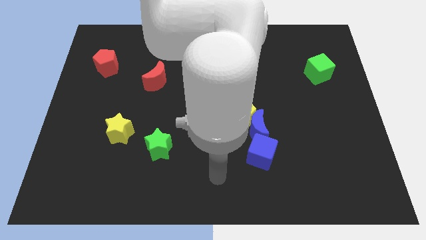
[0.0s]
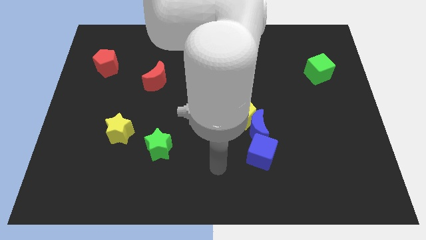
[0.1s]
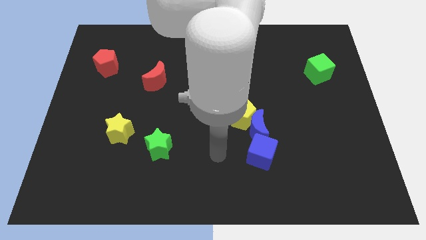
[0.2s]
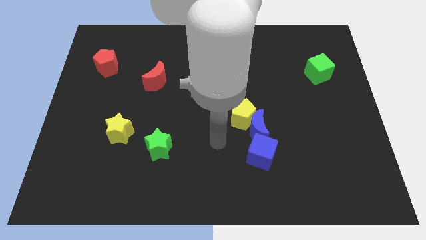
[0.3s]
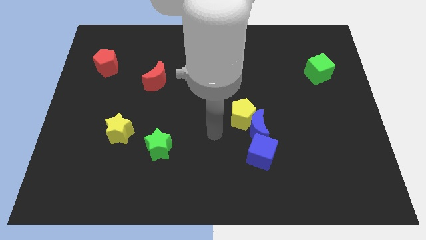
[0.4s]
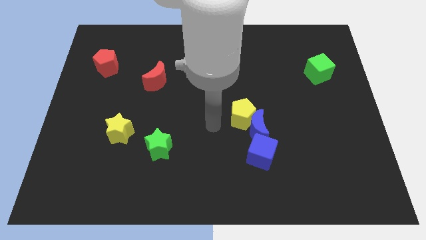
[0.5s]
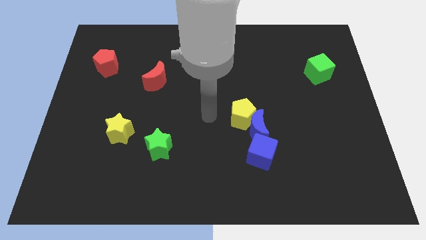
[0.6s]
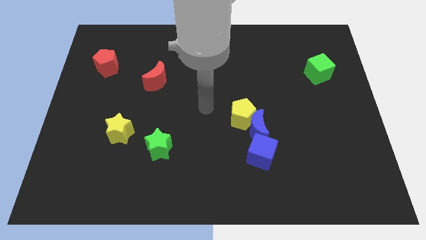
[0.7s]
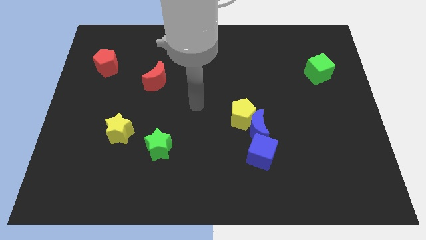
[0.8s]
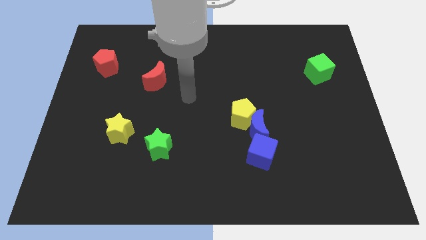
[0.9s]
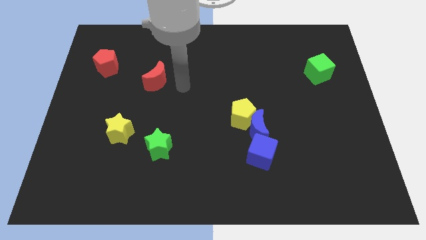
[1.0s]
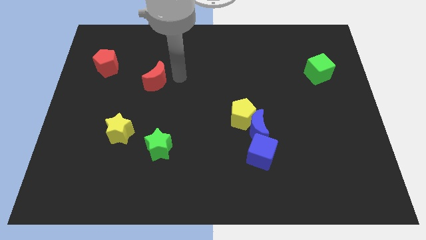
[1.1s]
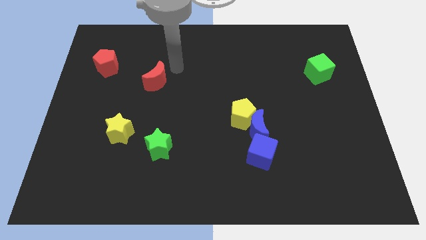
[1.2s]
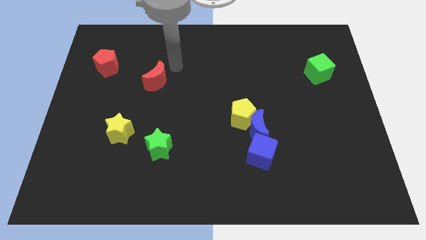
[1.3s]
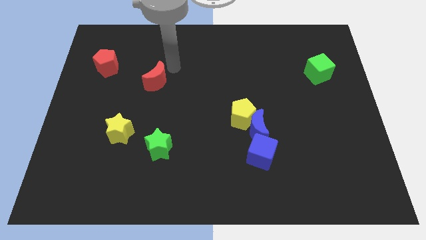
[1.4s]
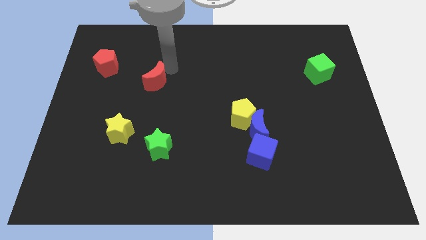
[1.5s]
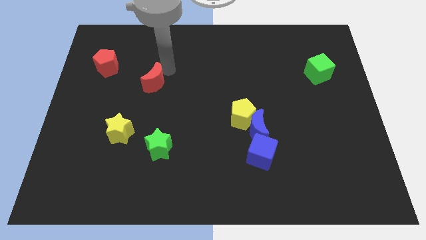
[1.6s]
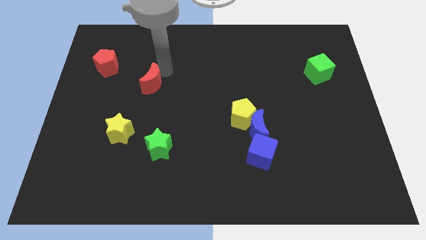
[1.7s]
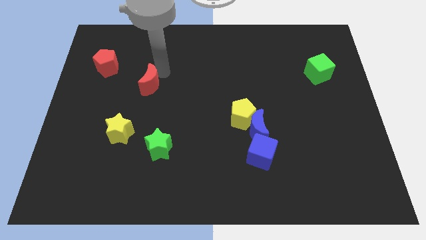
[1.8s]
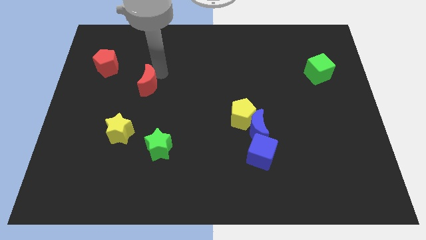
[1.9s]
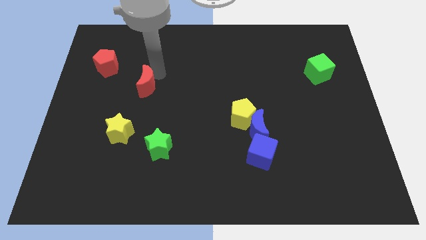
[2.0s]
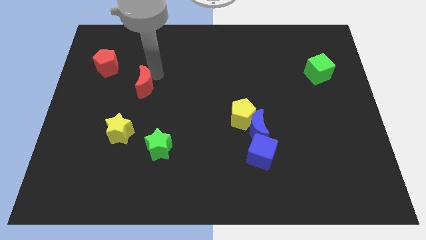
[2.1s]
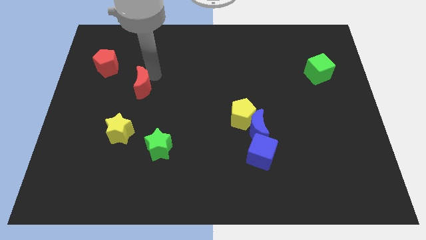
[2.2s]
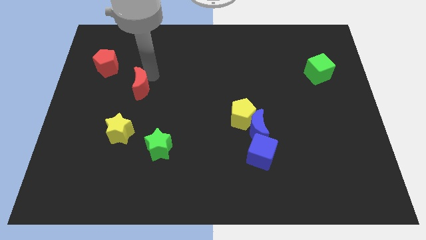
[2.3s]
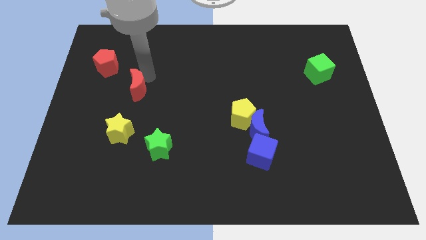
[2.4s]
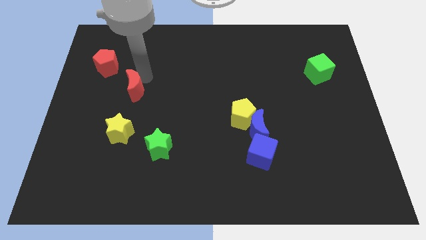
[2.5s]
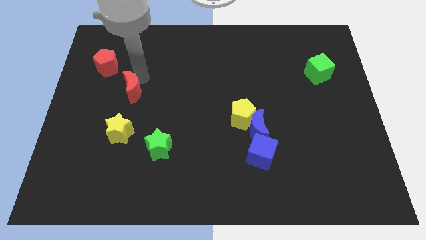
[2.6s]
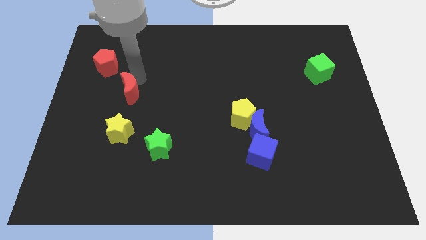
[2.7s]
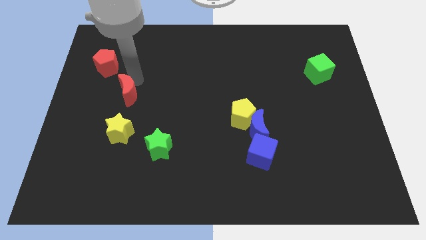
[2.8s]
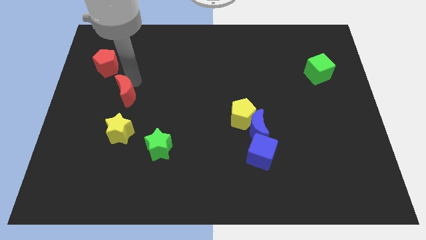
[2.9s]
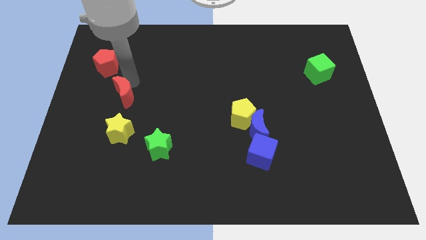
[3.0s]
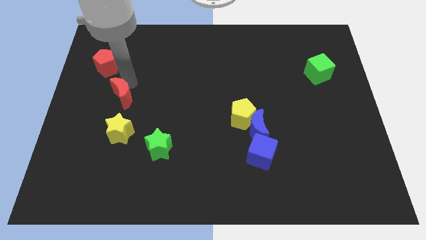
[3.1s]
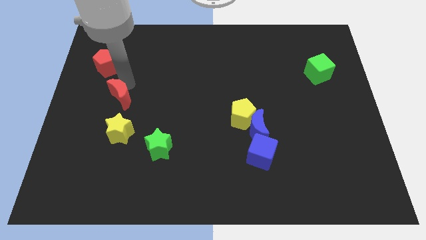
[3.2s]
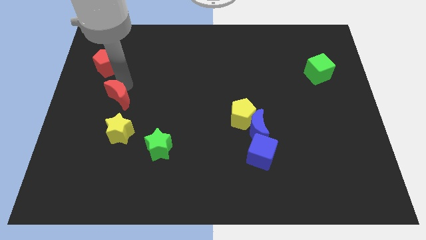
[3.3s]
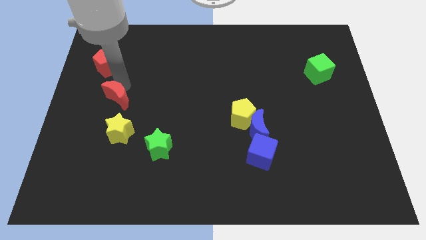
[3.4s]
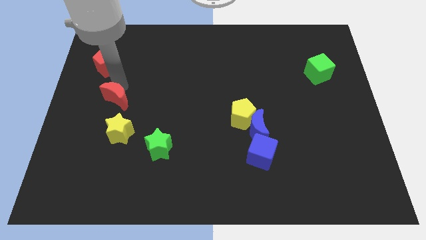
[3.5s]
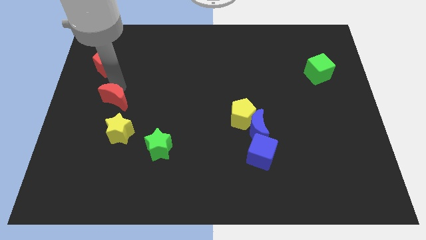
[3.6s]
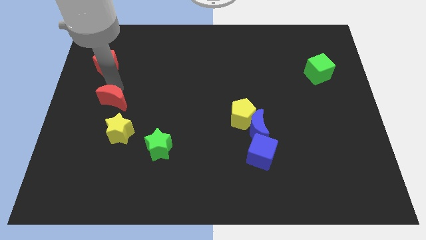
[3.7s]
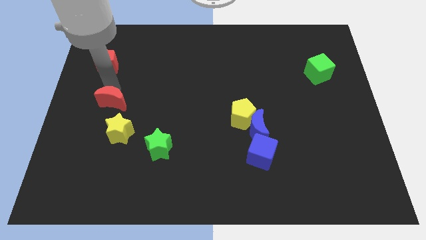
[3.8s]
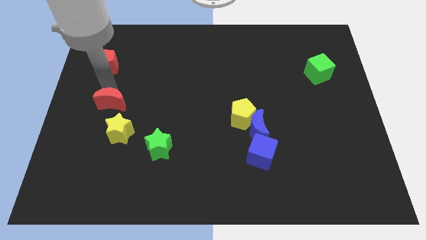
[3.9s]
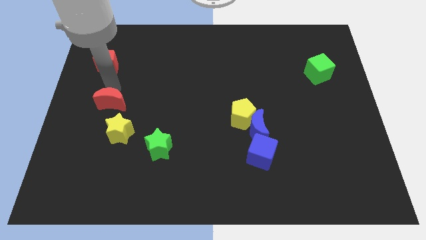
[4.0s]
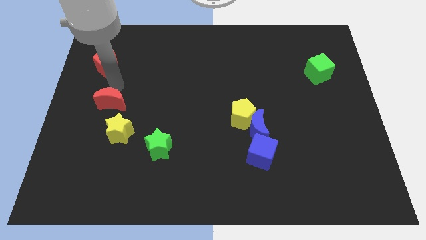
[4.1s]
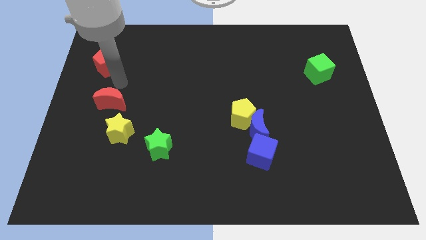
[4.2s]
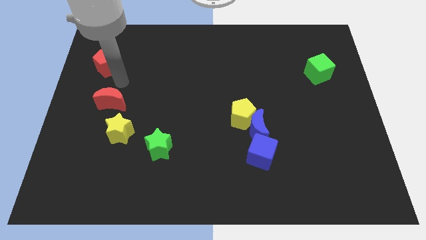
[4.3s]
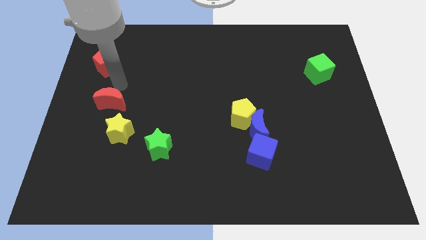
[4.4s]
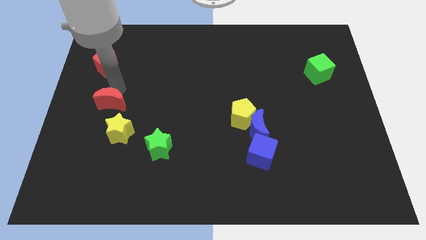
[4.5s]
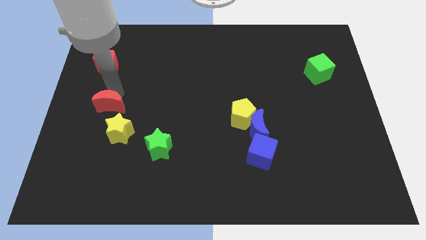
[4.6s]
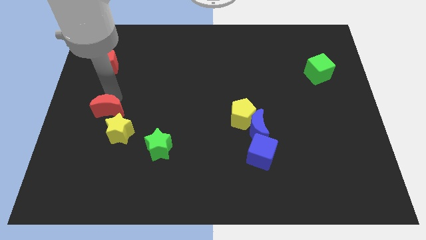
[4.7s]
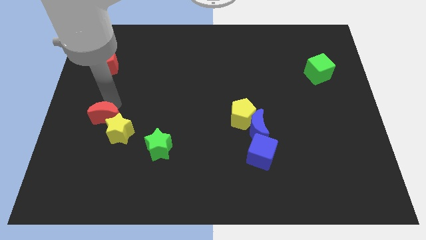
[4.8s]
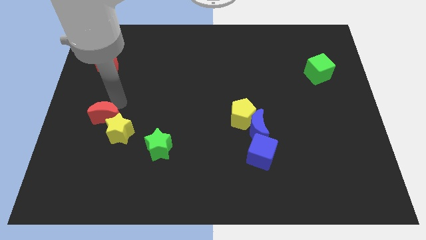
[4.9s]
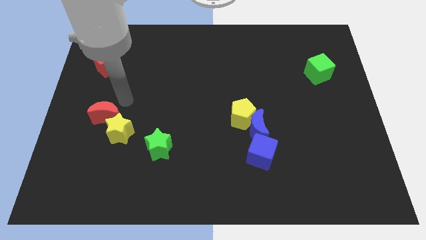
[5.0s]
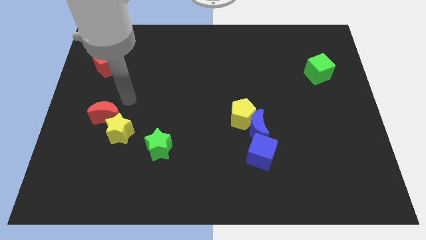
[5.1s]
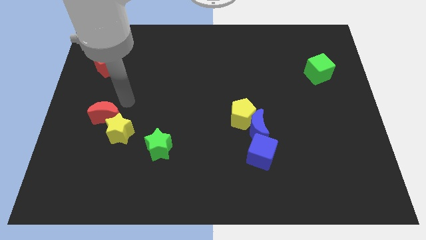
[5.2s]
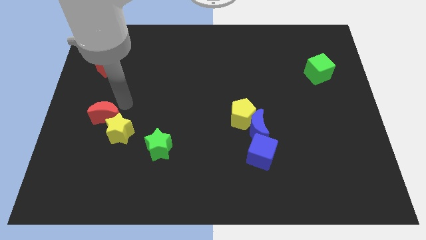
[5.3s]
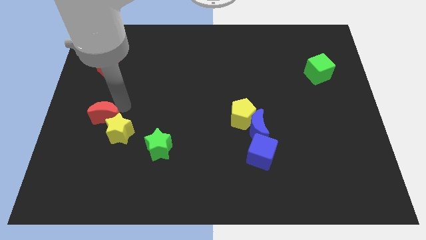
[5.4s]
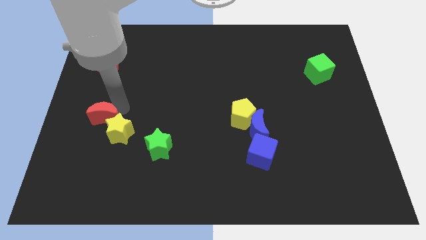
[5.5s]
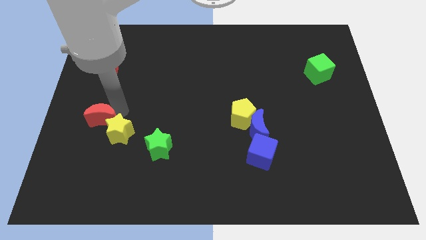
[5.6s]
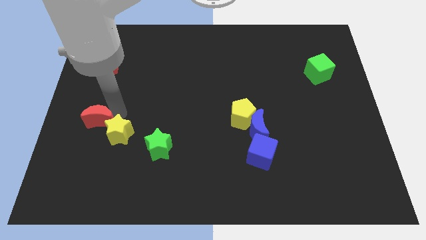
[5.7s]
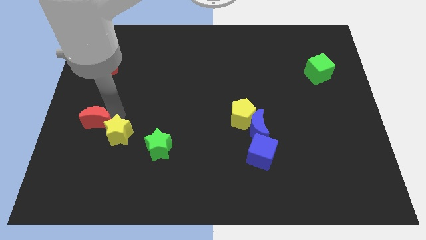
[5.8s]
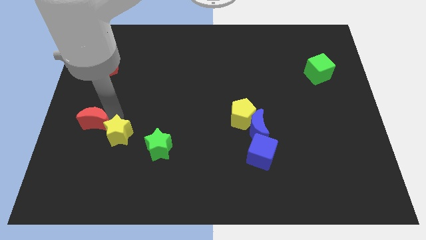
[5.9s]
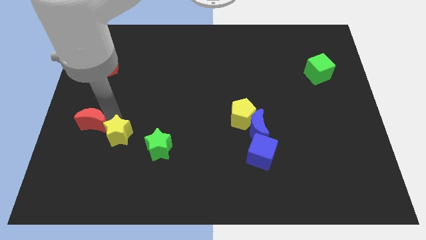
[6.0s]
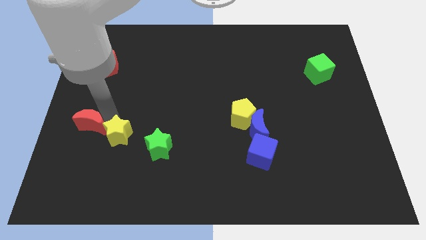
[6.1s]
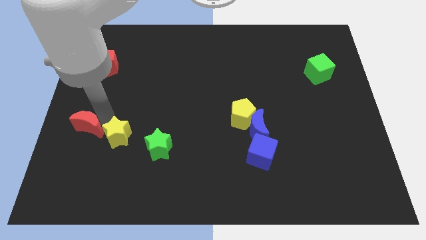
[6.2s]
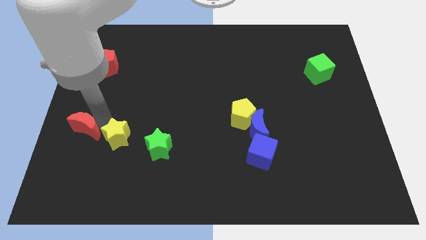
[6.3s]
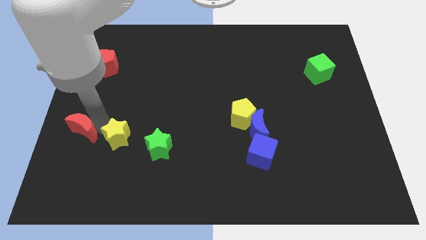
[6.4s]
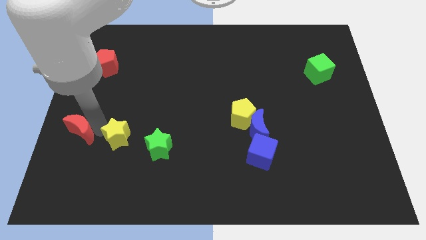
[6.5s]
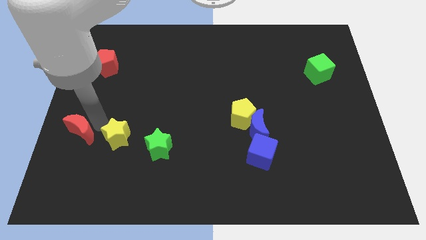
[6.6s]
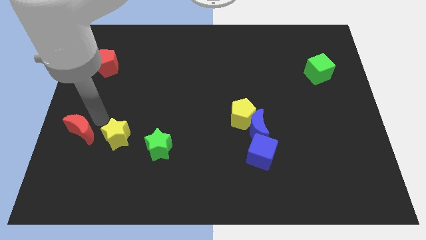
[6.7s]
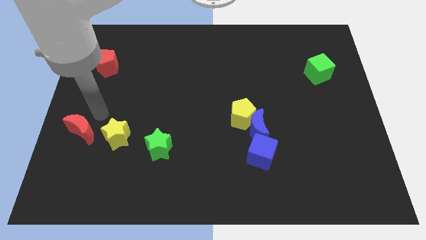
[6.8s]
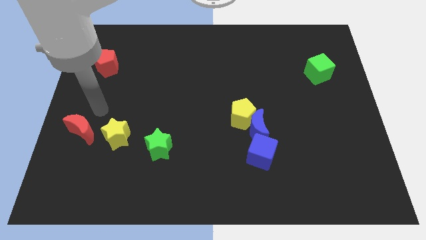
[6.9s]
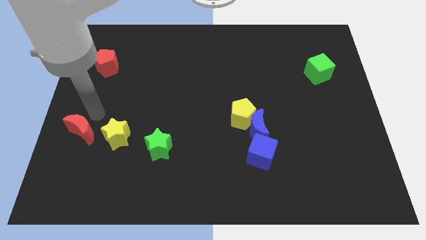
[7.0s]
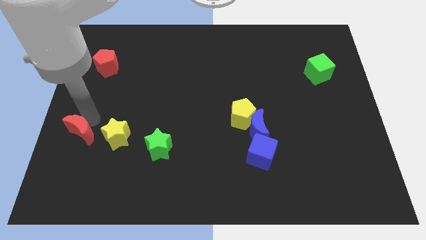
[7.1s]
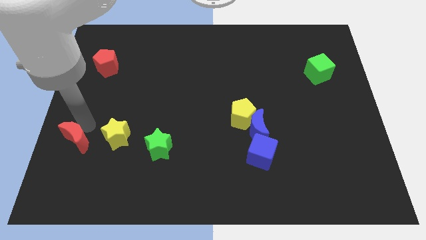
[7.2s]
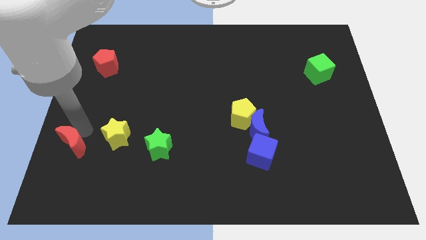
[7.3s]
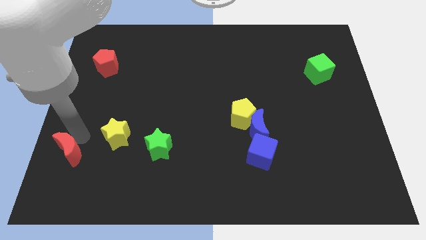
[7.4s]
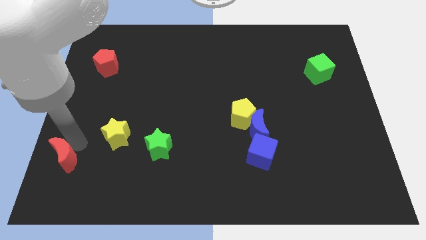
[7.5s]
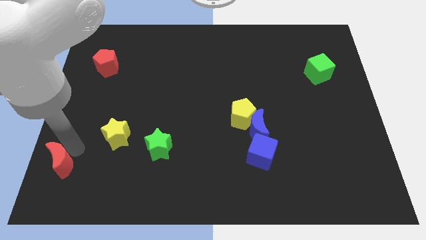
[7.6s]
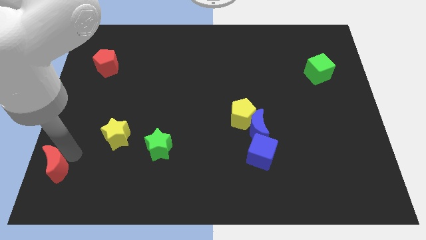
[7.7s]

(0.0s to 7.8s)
move the red moon to the bottom left corner
